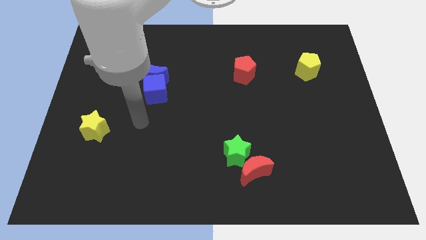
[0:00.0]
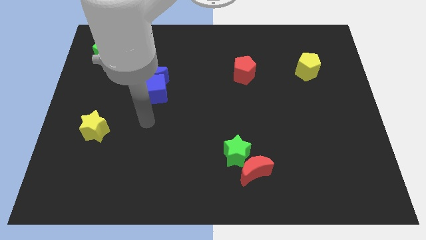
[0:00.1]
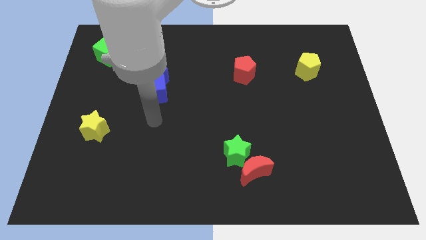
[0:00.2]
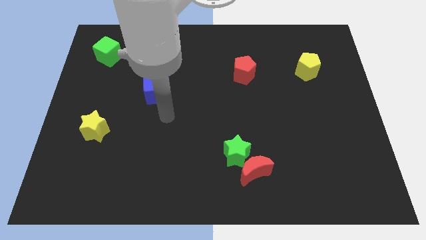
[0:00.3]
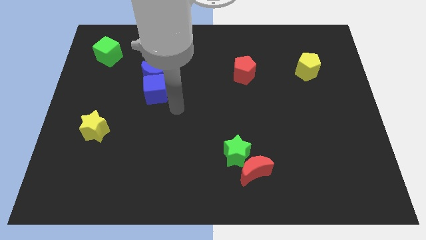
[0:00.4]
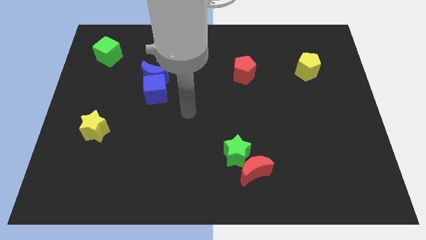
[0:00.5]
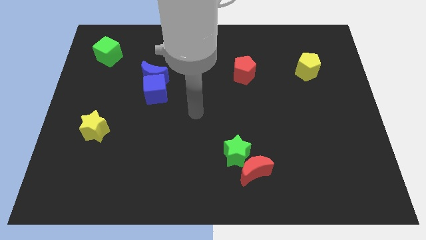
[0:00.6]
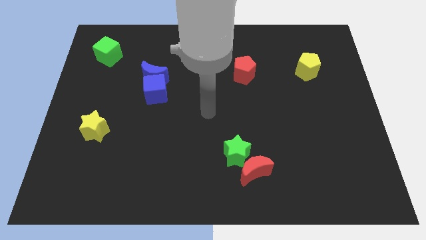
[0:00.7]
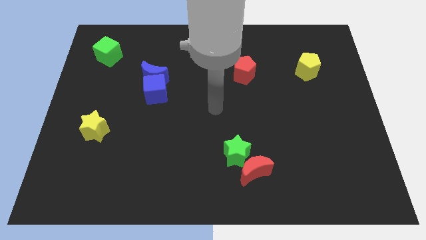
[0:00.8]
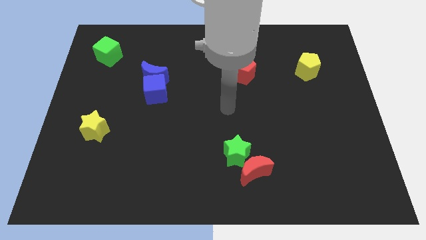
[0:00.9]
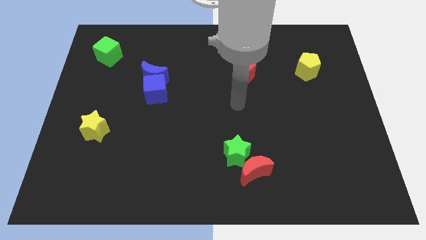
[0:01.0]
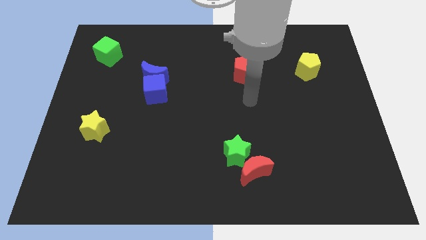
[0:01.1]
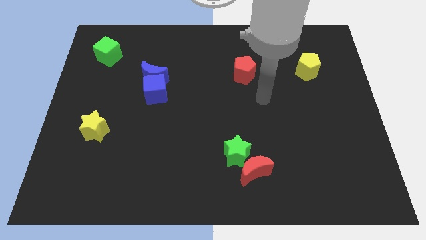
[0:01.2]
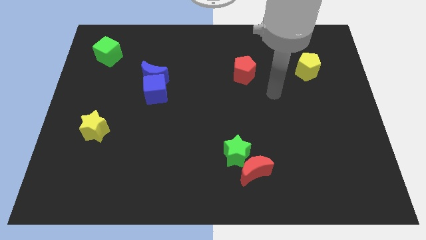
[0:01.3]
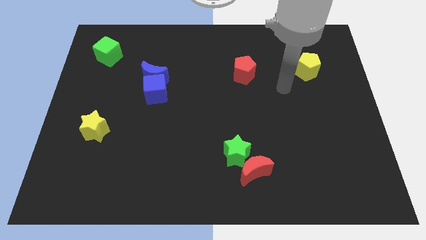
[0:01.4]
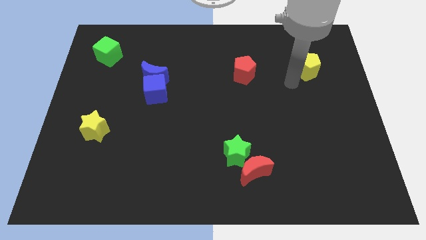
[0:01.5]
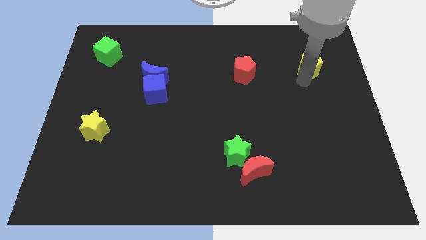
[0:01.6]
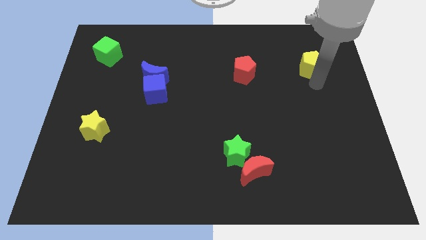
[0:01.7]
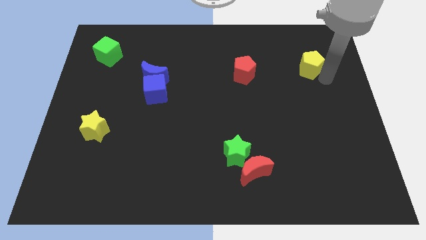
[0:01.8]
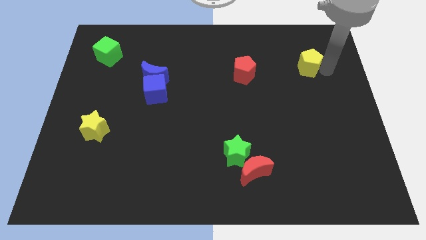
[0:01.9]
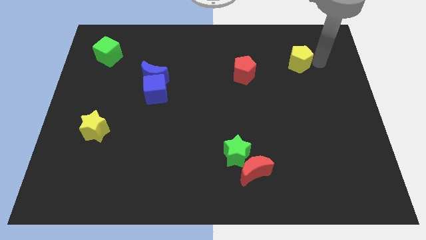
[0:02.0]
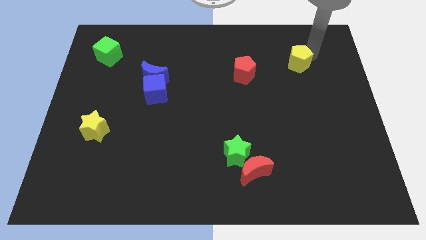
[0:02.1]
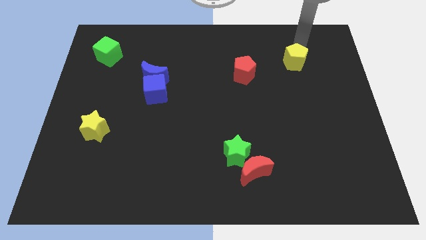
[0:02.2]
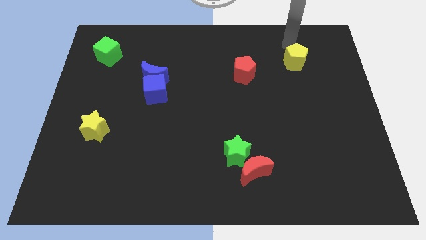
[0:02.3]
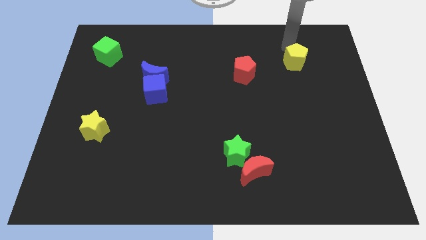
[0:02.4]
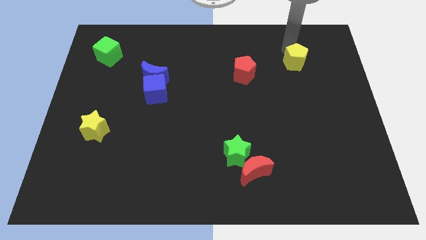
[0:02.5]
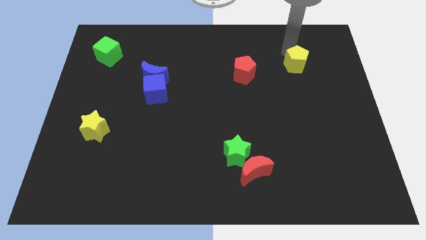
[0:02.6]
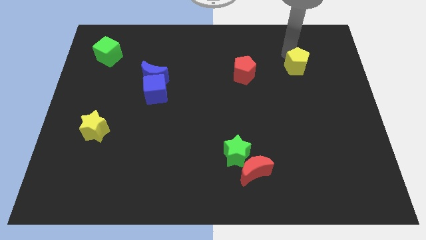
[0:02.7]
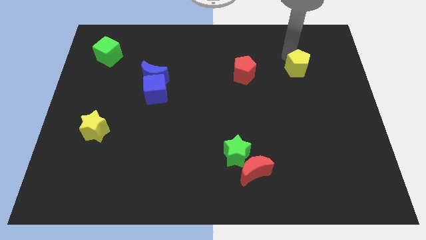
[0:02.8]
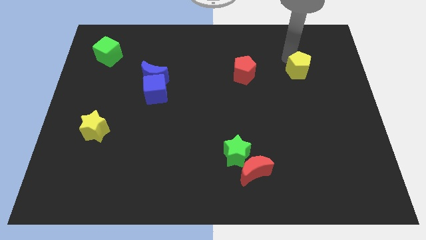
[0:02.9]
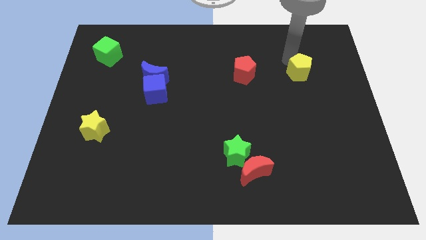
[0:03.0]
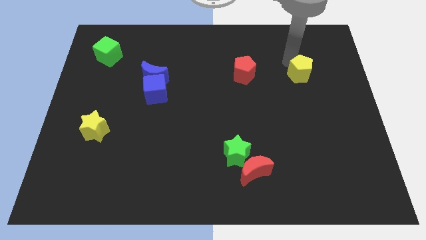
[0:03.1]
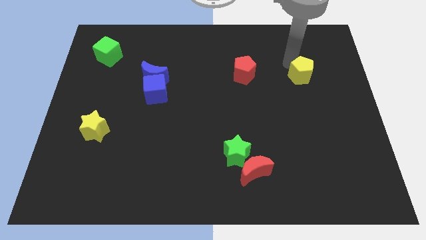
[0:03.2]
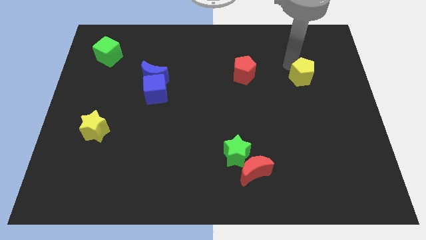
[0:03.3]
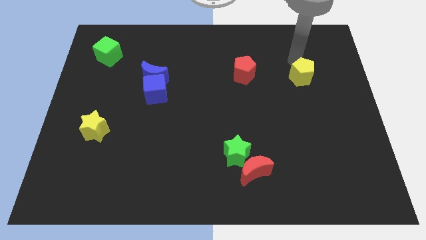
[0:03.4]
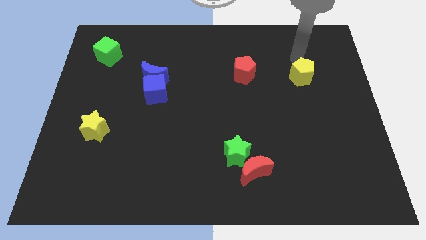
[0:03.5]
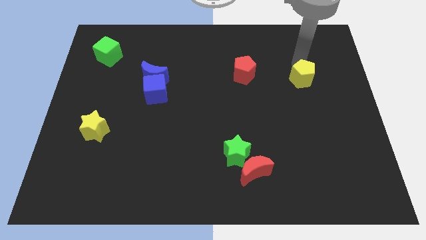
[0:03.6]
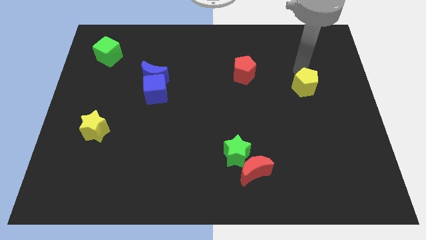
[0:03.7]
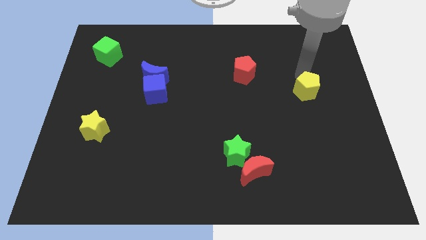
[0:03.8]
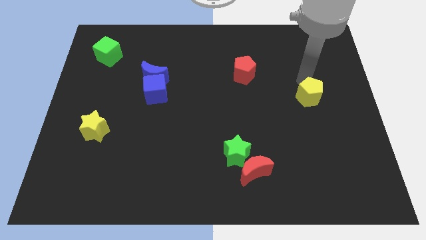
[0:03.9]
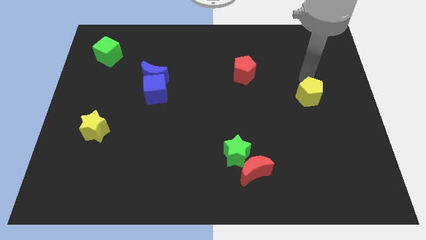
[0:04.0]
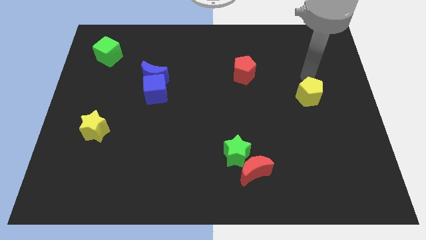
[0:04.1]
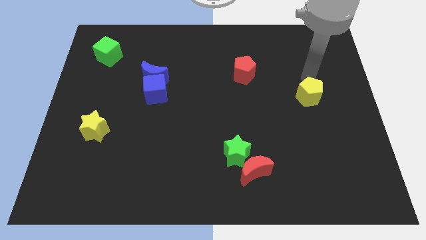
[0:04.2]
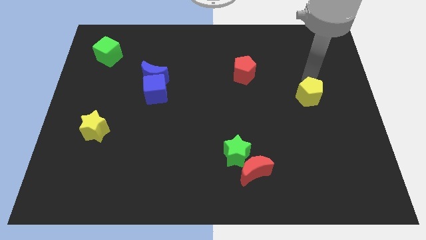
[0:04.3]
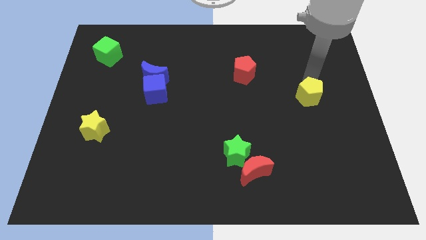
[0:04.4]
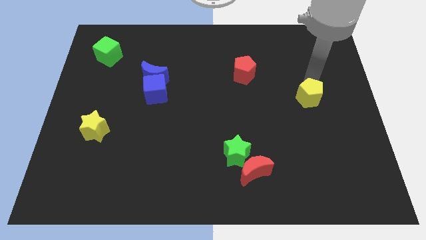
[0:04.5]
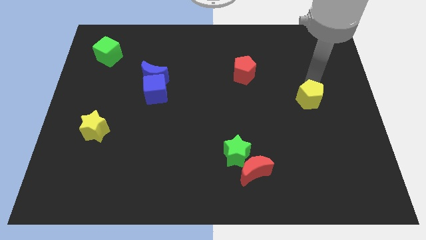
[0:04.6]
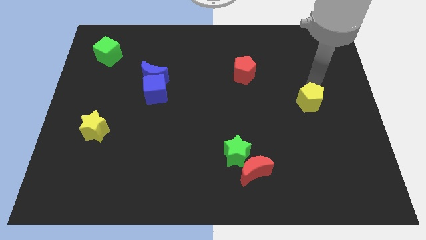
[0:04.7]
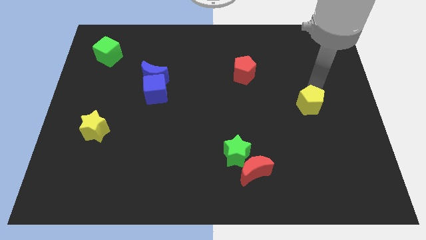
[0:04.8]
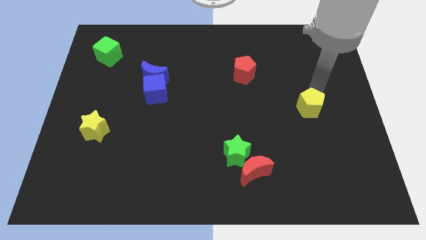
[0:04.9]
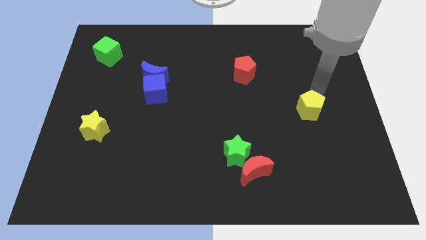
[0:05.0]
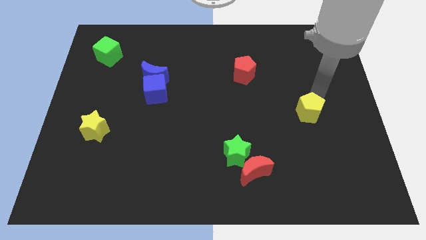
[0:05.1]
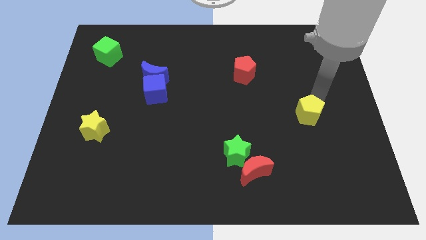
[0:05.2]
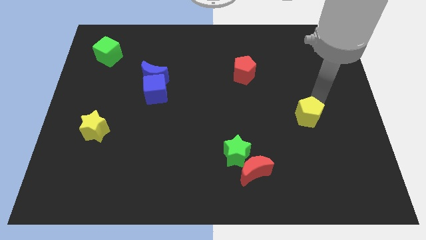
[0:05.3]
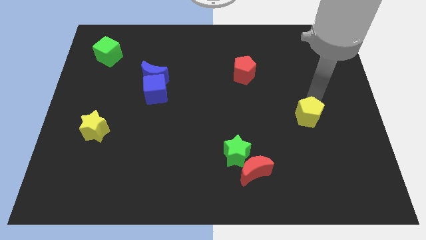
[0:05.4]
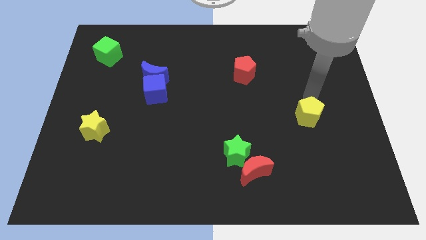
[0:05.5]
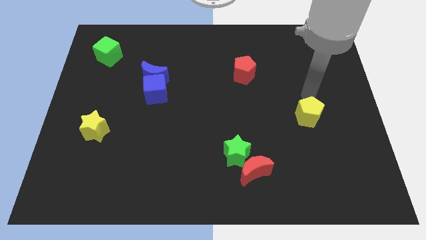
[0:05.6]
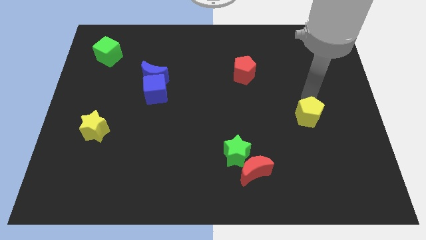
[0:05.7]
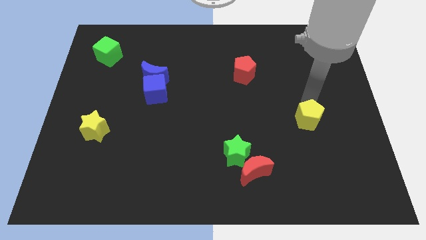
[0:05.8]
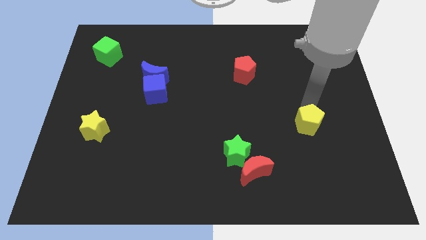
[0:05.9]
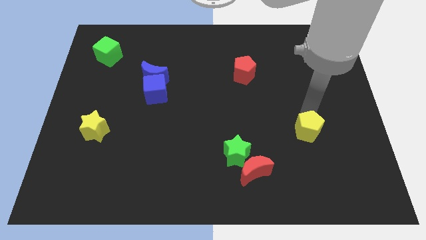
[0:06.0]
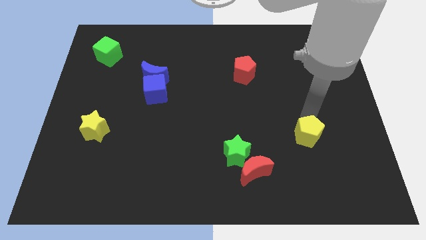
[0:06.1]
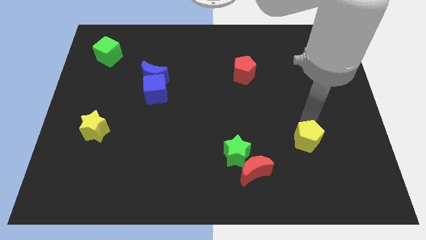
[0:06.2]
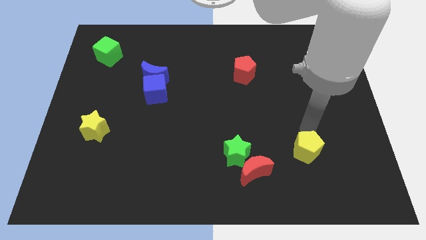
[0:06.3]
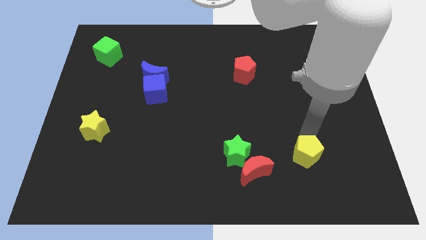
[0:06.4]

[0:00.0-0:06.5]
put the yellow pentagon just right of the red moon

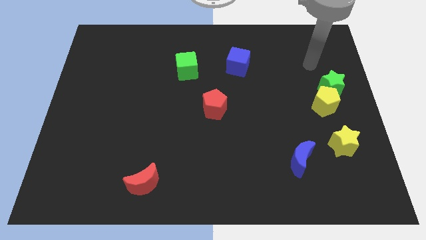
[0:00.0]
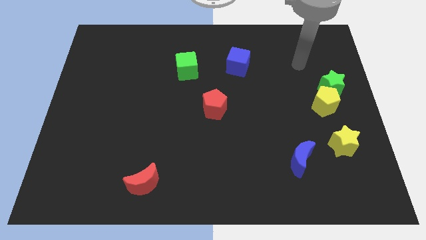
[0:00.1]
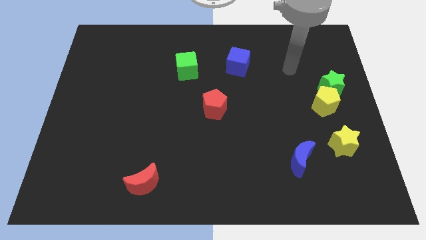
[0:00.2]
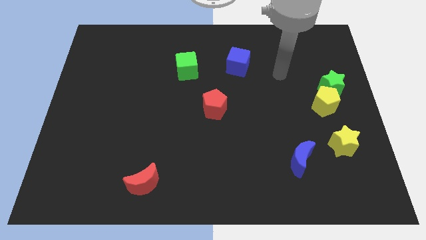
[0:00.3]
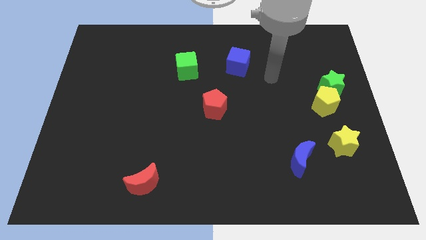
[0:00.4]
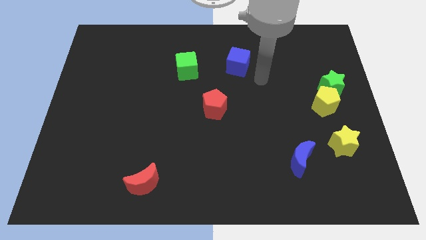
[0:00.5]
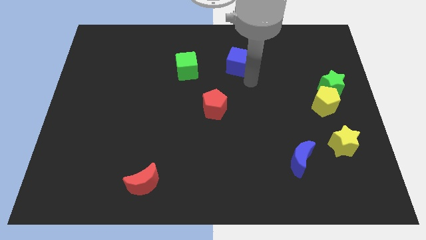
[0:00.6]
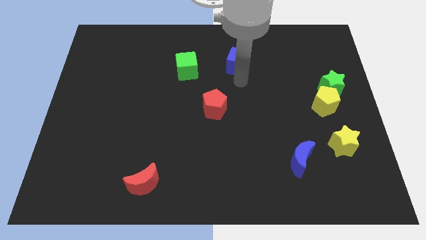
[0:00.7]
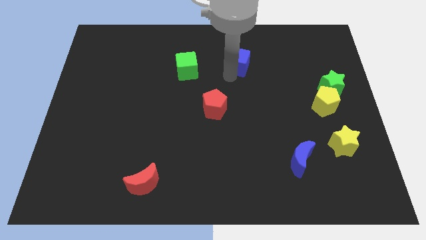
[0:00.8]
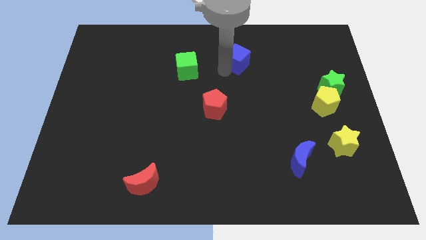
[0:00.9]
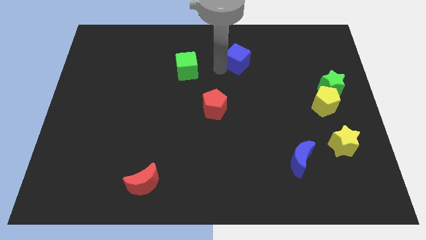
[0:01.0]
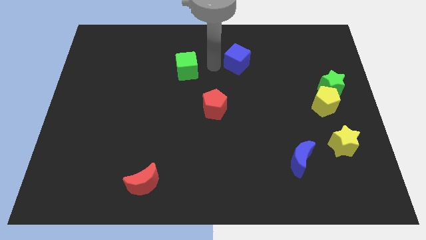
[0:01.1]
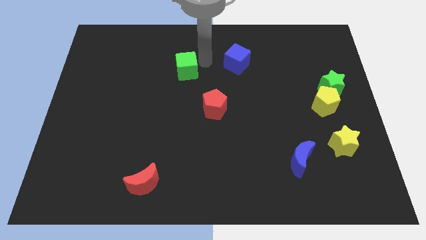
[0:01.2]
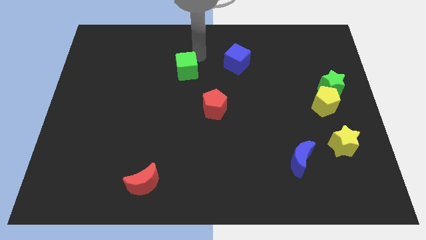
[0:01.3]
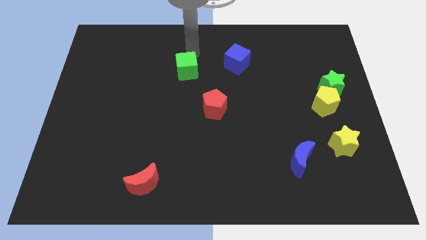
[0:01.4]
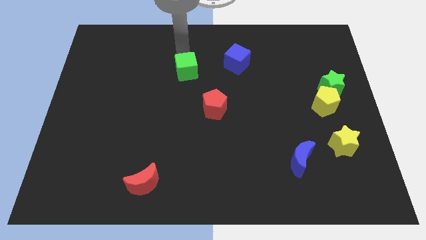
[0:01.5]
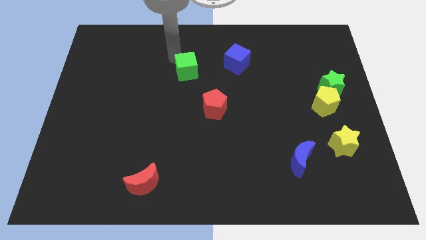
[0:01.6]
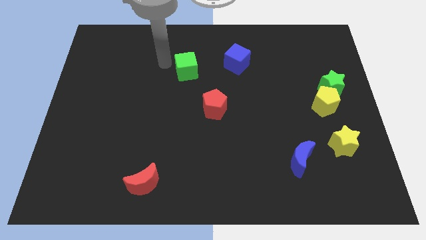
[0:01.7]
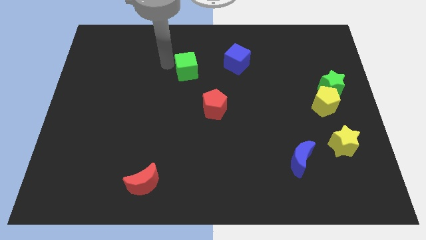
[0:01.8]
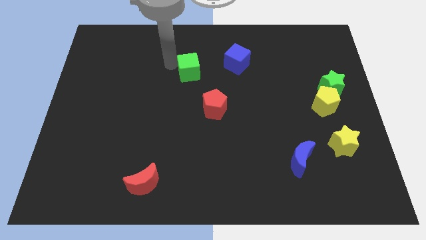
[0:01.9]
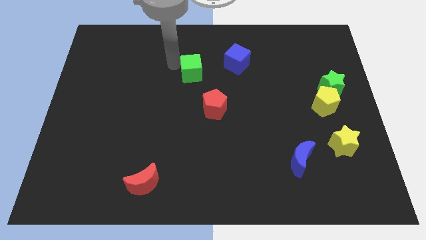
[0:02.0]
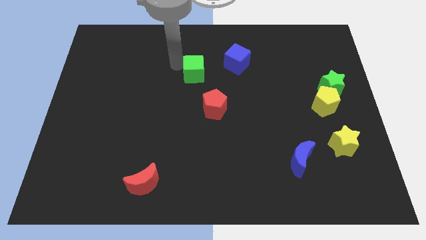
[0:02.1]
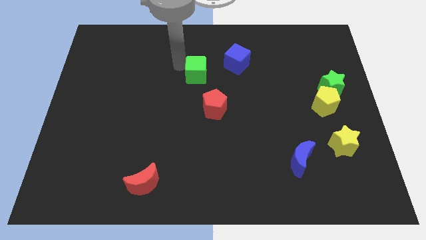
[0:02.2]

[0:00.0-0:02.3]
push the green cube diagonally down and to the left of the blue cube
